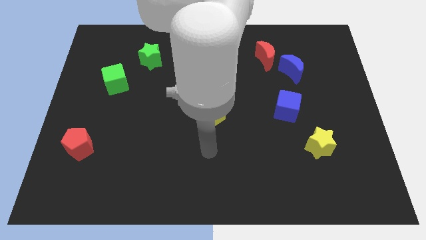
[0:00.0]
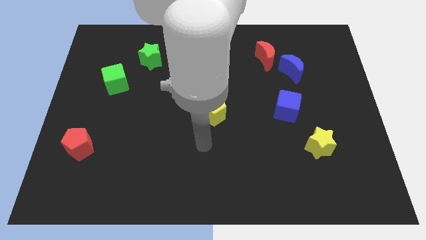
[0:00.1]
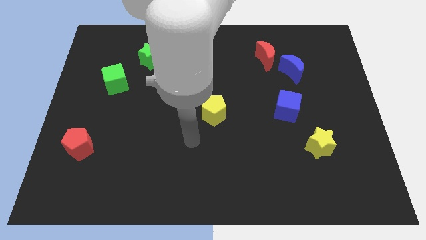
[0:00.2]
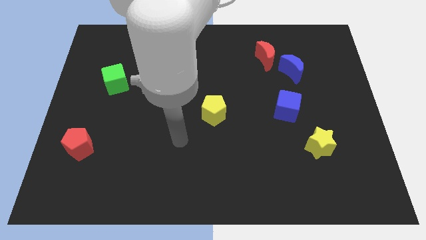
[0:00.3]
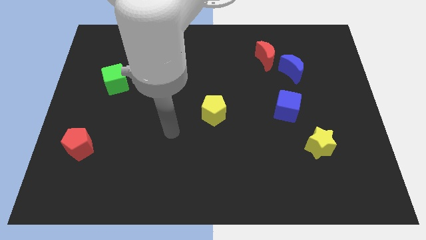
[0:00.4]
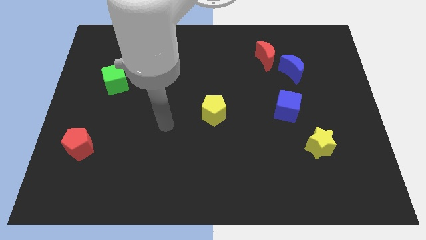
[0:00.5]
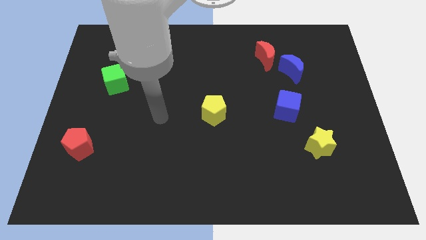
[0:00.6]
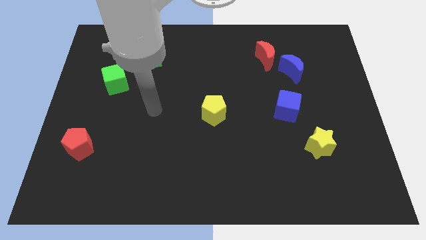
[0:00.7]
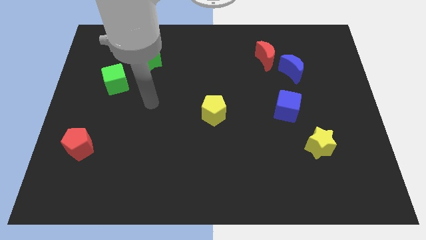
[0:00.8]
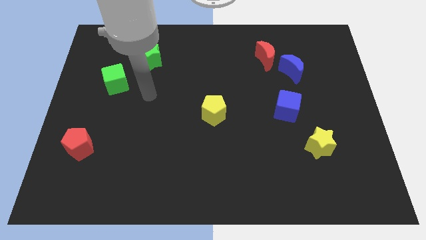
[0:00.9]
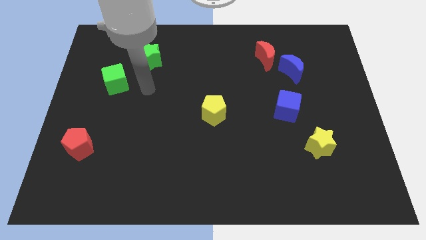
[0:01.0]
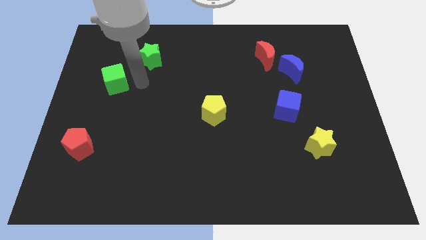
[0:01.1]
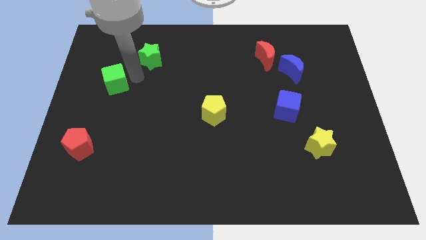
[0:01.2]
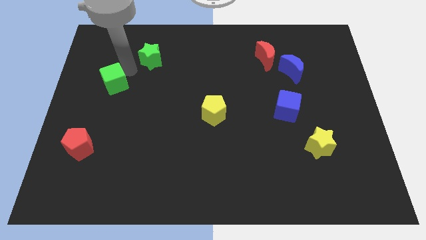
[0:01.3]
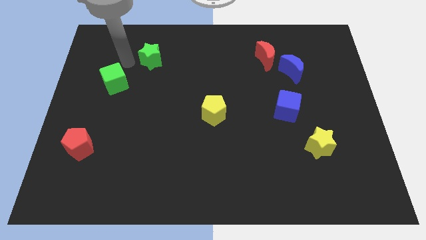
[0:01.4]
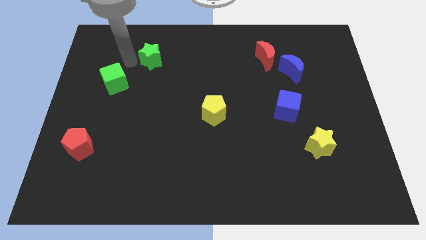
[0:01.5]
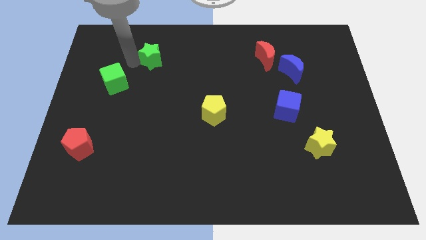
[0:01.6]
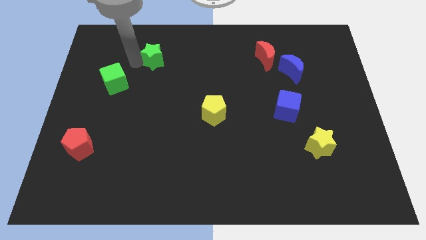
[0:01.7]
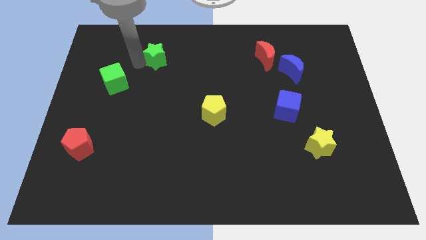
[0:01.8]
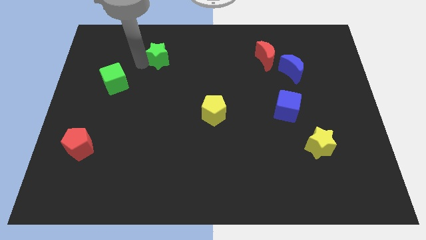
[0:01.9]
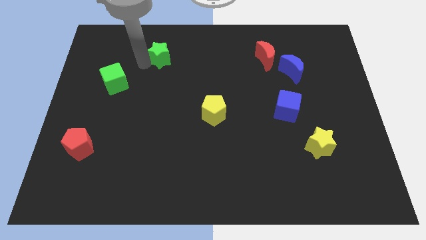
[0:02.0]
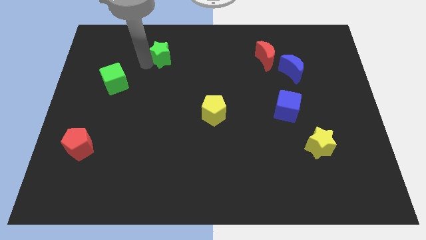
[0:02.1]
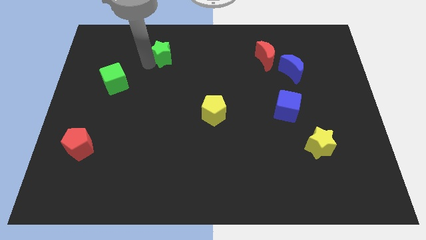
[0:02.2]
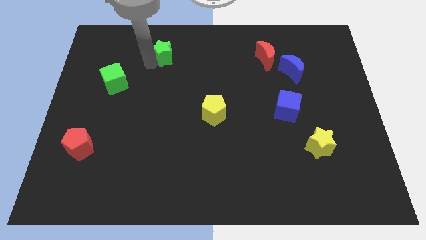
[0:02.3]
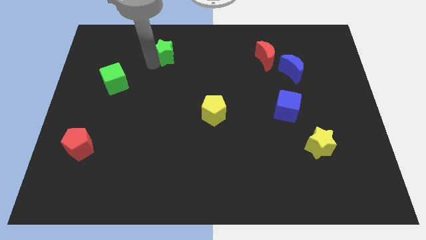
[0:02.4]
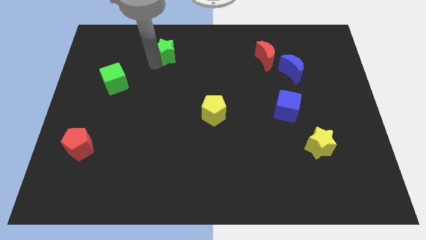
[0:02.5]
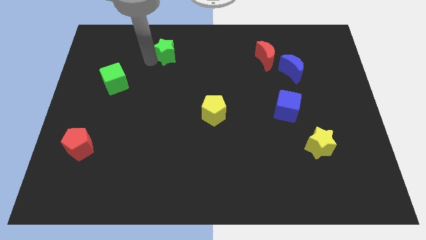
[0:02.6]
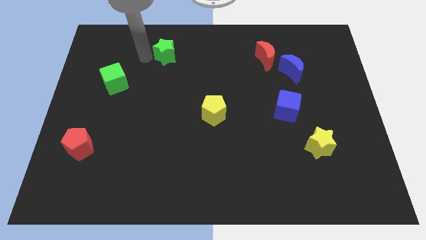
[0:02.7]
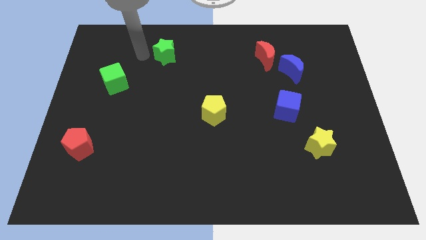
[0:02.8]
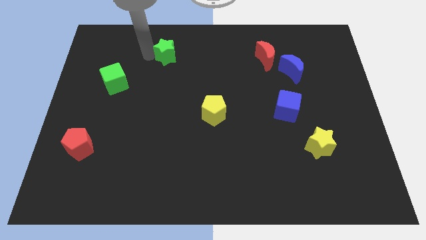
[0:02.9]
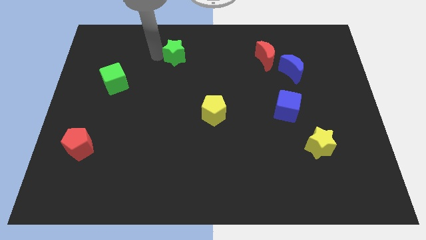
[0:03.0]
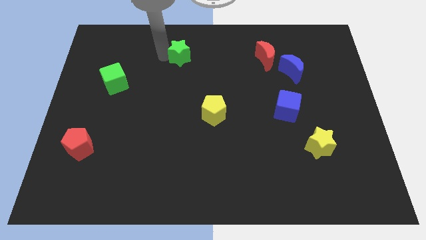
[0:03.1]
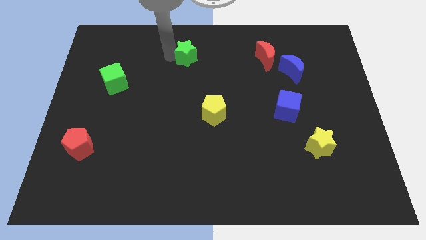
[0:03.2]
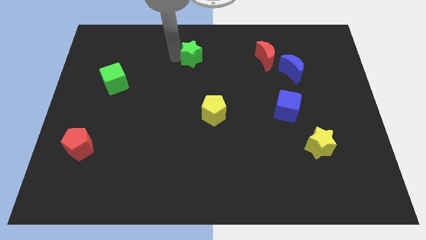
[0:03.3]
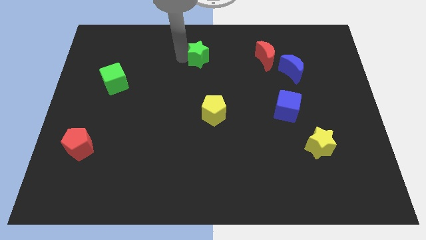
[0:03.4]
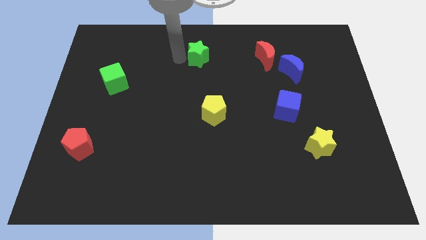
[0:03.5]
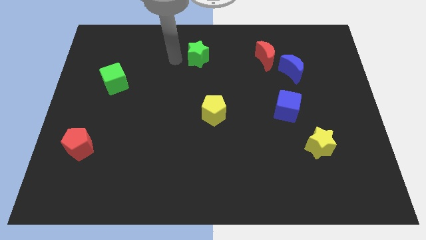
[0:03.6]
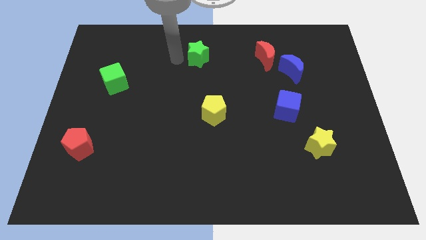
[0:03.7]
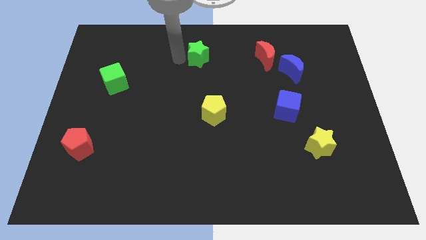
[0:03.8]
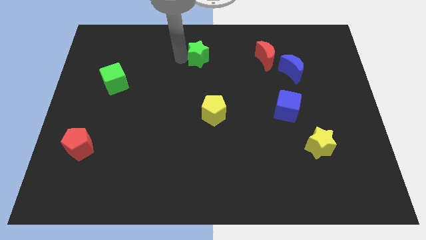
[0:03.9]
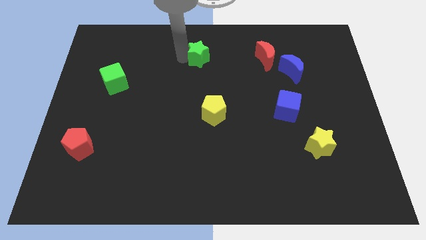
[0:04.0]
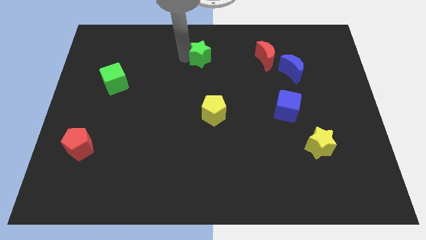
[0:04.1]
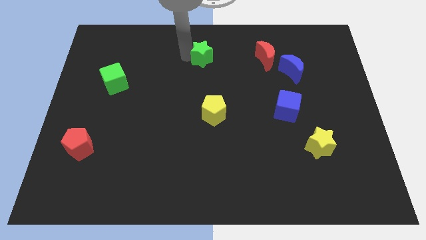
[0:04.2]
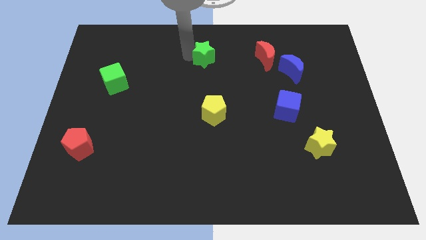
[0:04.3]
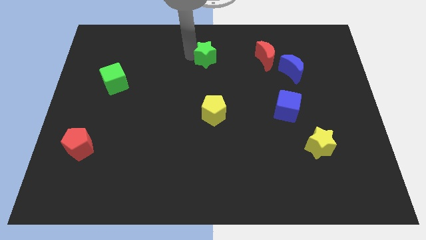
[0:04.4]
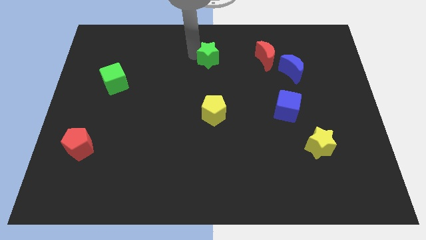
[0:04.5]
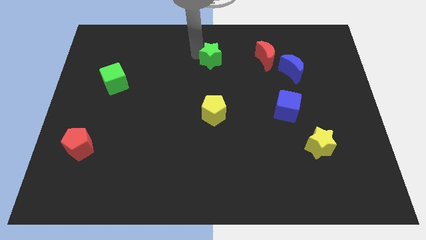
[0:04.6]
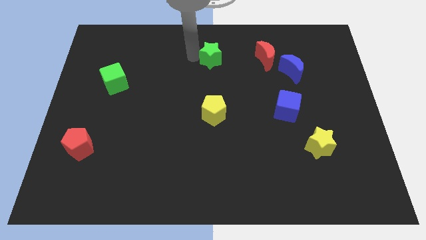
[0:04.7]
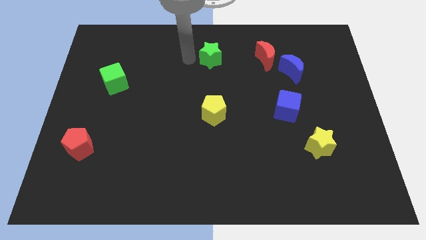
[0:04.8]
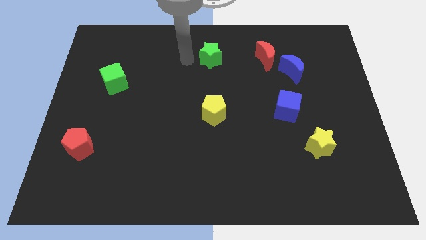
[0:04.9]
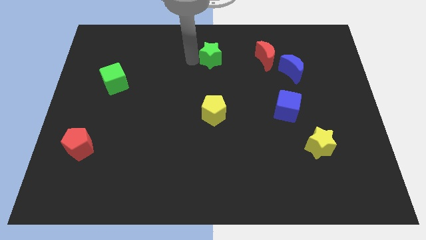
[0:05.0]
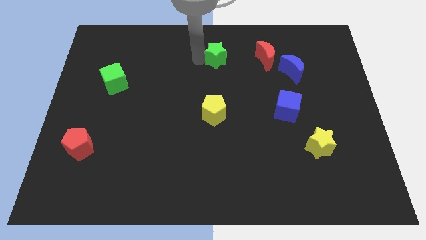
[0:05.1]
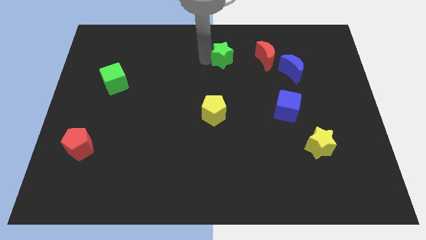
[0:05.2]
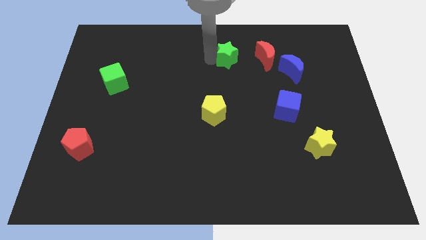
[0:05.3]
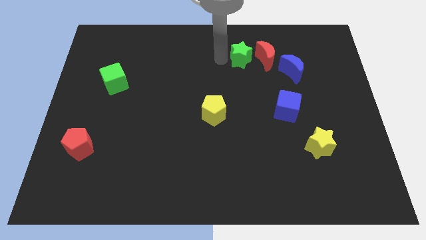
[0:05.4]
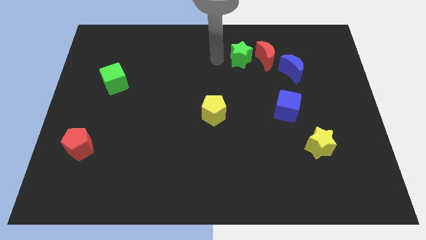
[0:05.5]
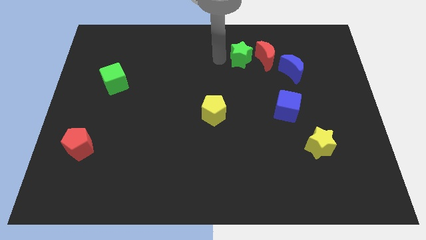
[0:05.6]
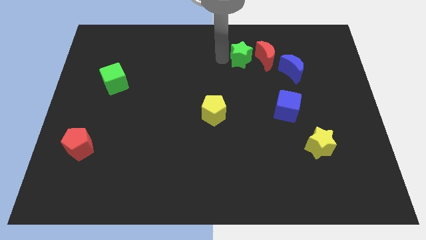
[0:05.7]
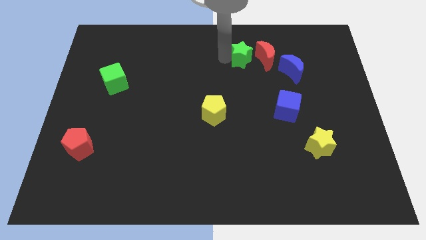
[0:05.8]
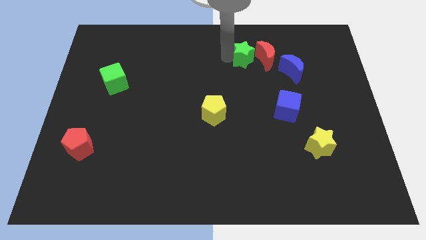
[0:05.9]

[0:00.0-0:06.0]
push the green star close to the red moon

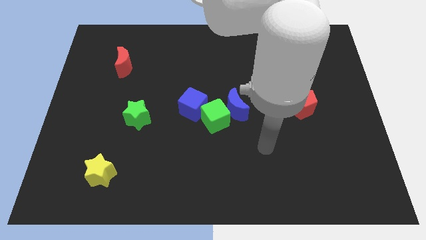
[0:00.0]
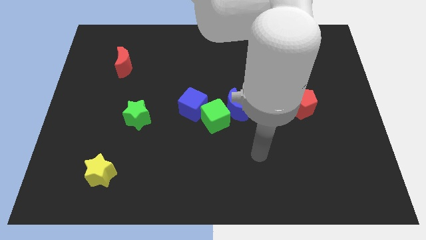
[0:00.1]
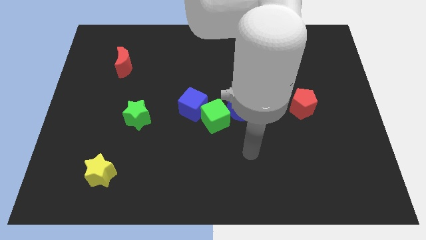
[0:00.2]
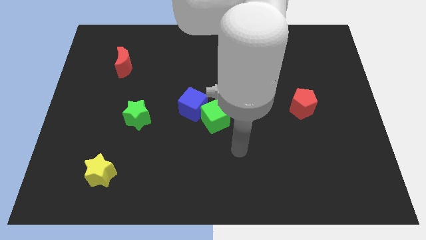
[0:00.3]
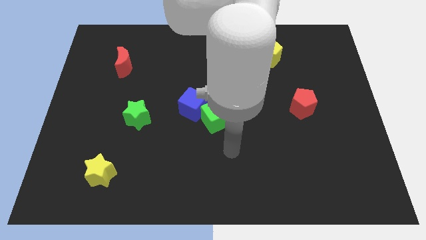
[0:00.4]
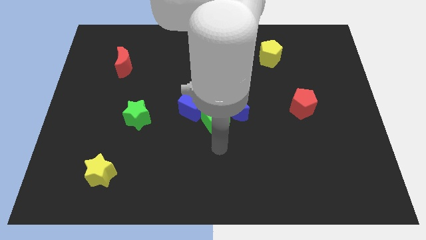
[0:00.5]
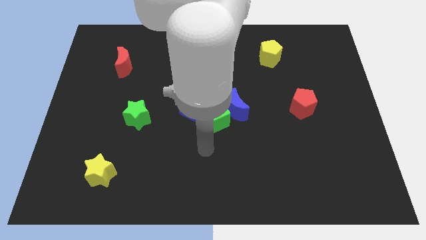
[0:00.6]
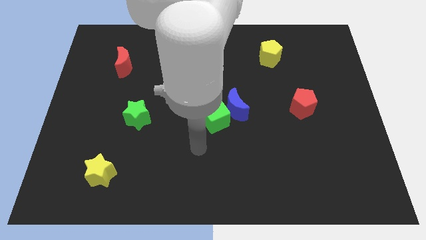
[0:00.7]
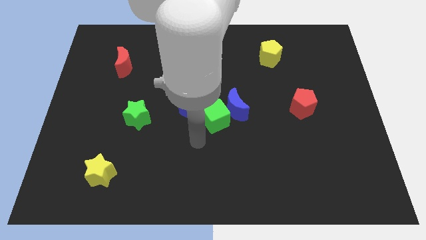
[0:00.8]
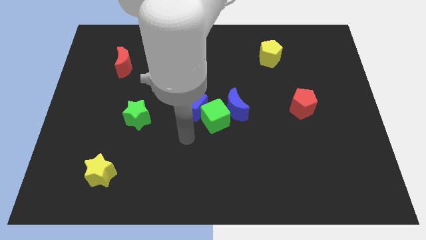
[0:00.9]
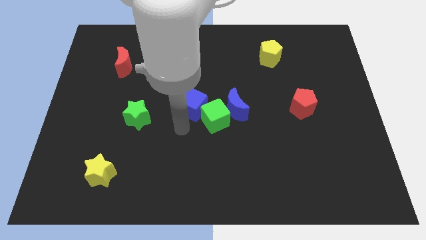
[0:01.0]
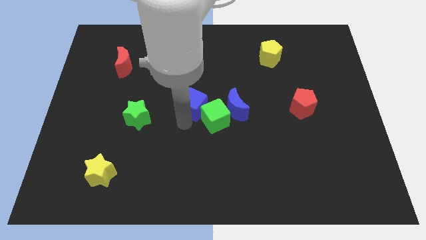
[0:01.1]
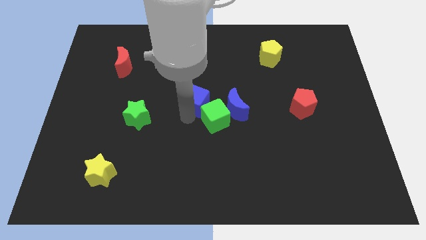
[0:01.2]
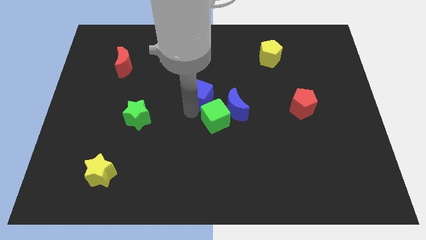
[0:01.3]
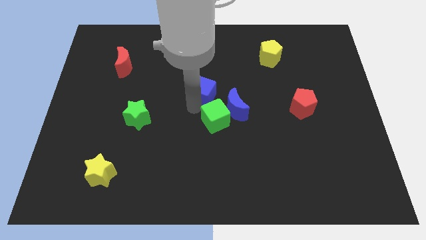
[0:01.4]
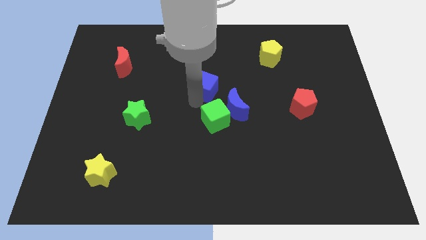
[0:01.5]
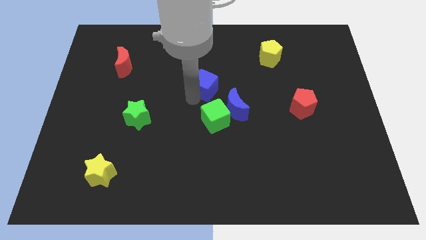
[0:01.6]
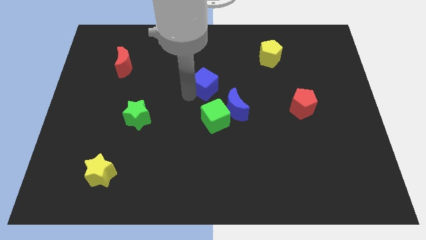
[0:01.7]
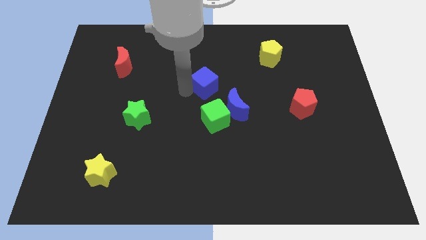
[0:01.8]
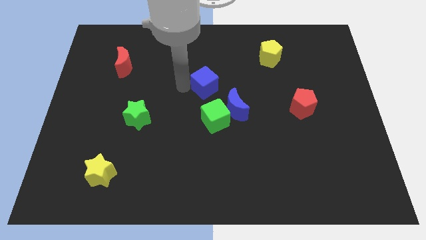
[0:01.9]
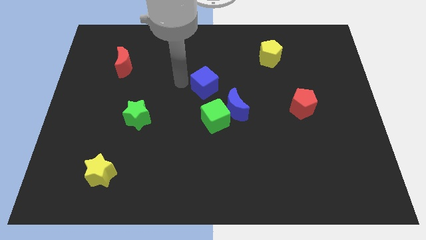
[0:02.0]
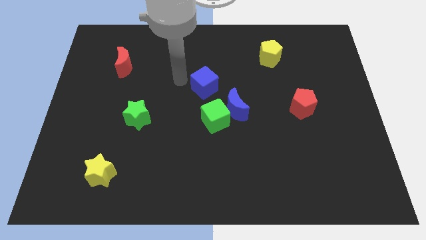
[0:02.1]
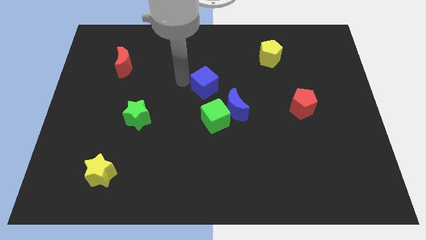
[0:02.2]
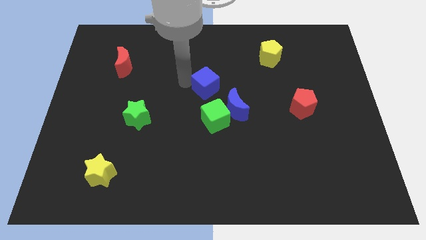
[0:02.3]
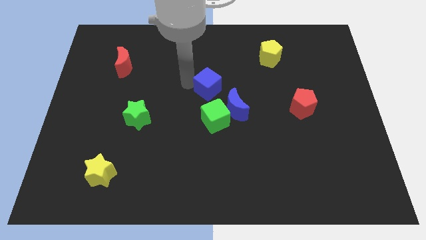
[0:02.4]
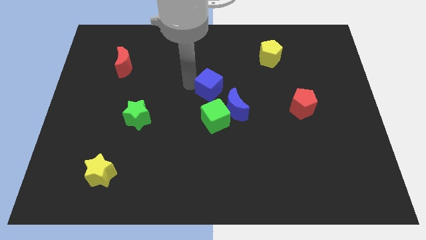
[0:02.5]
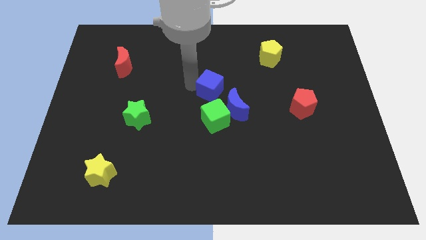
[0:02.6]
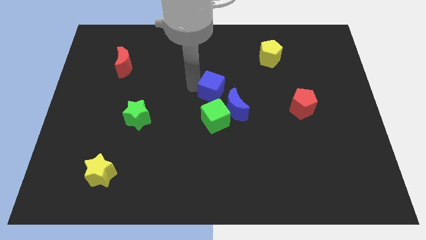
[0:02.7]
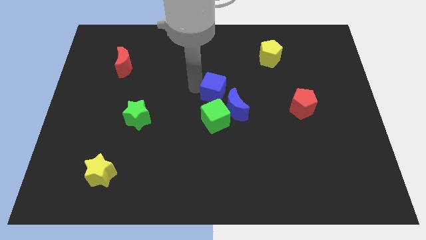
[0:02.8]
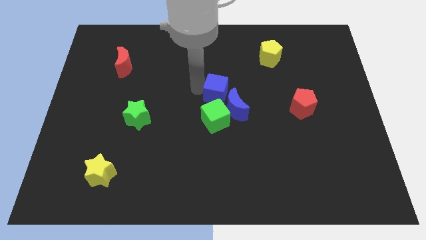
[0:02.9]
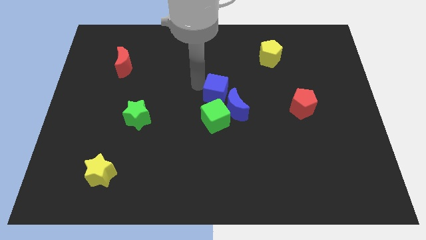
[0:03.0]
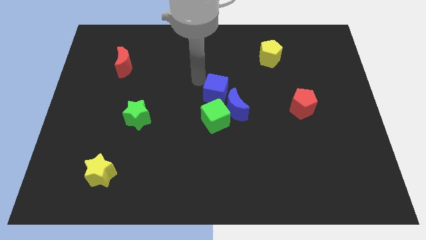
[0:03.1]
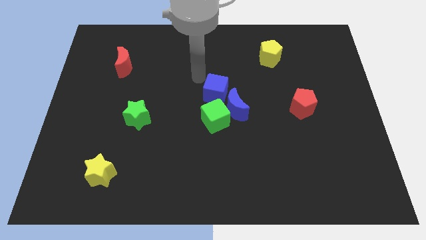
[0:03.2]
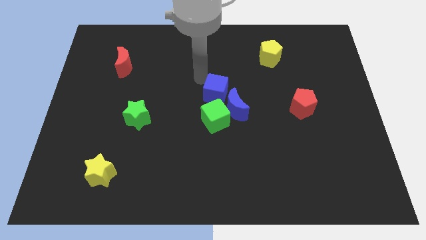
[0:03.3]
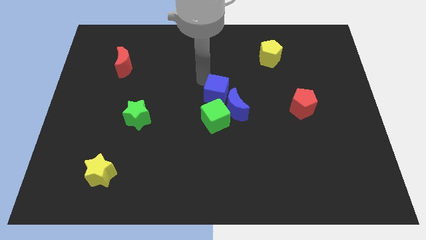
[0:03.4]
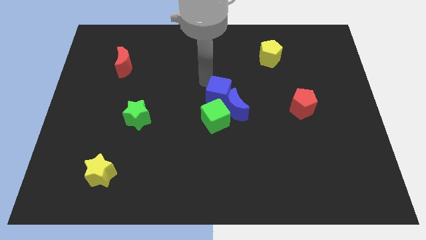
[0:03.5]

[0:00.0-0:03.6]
slide the blue cube next to the blue moon
